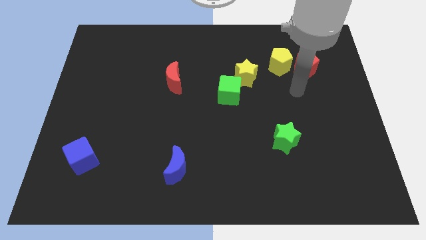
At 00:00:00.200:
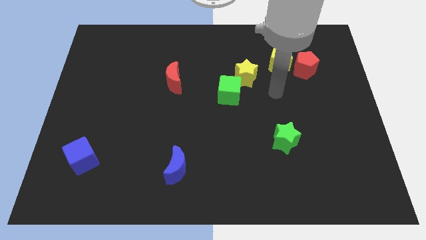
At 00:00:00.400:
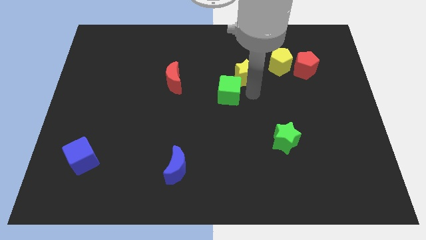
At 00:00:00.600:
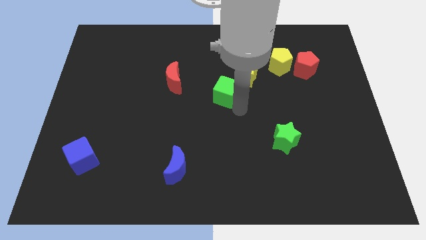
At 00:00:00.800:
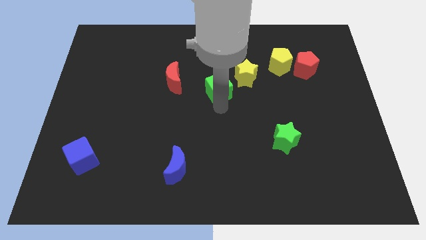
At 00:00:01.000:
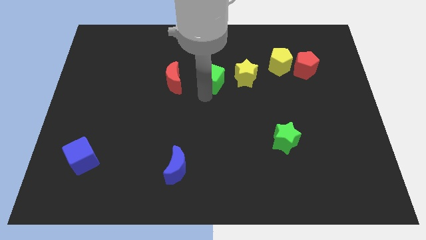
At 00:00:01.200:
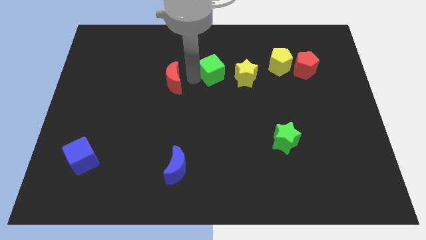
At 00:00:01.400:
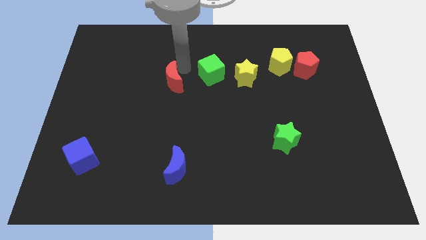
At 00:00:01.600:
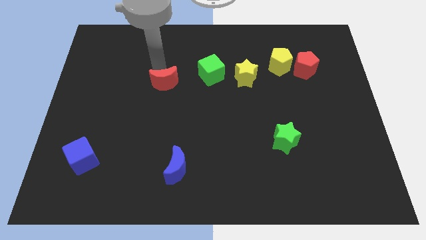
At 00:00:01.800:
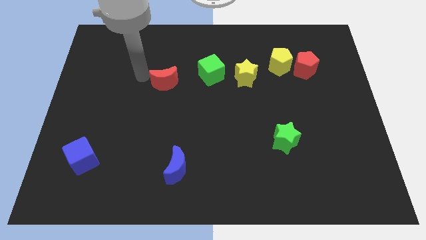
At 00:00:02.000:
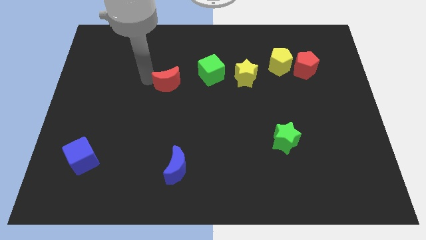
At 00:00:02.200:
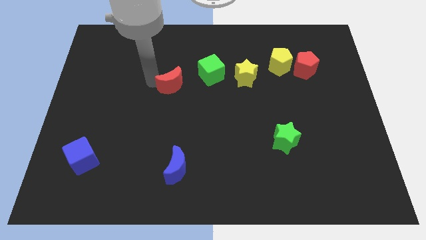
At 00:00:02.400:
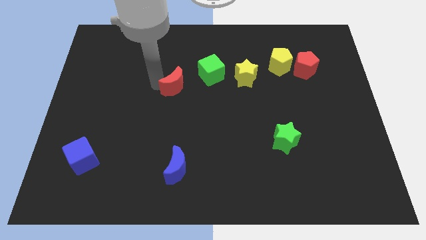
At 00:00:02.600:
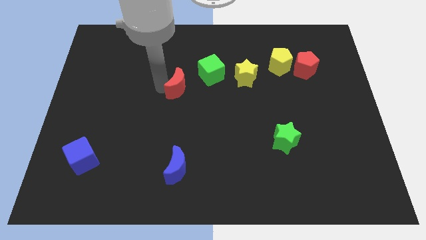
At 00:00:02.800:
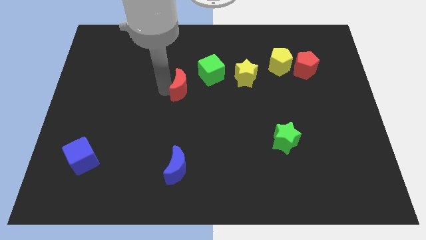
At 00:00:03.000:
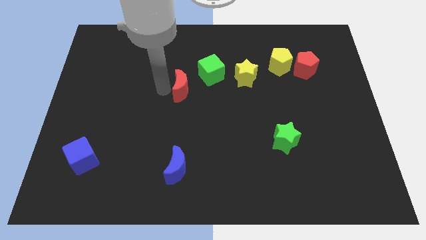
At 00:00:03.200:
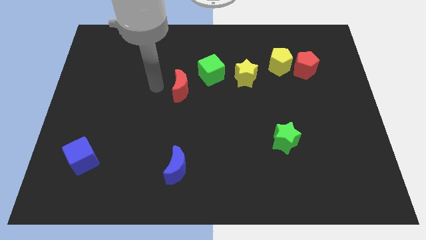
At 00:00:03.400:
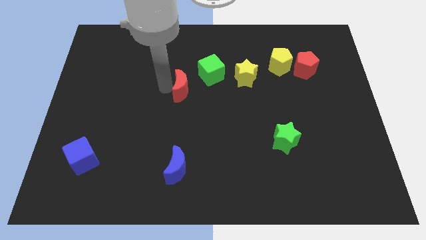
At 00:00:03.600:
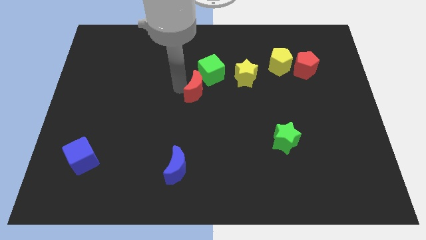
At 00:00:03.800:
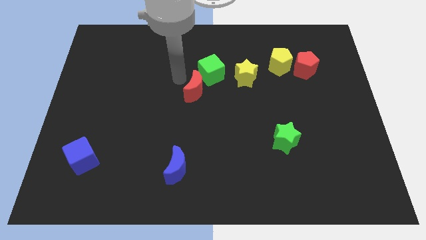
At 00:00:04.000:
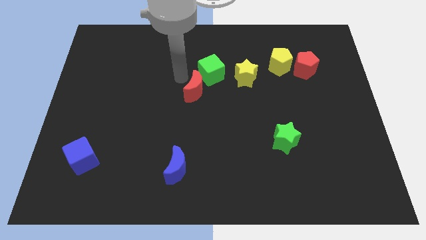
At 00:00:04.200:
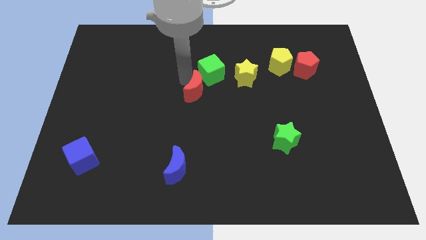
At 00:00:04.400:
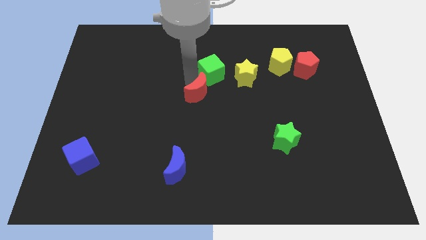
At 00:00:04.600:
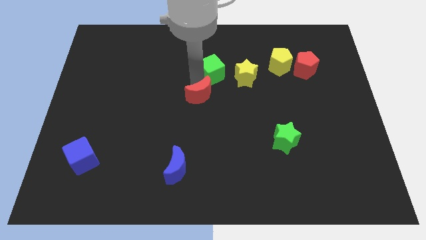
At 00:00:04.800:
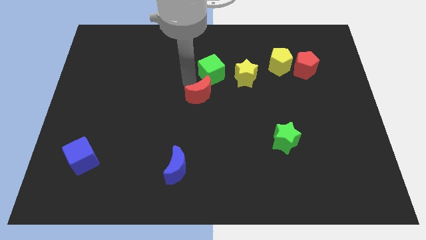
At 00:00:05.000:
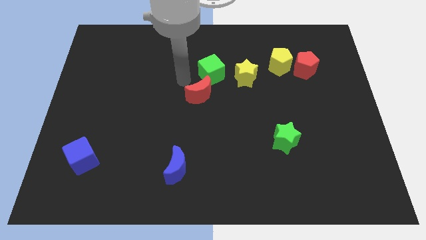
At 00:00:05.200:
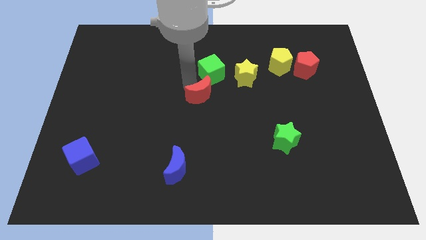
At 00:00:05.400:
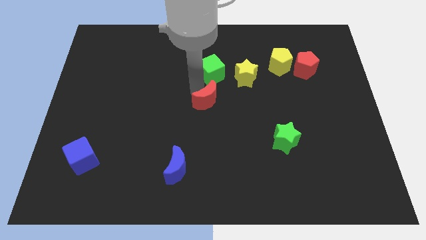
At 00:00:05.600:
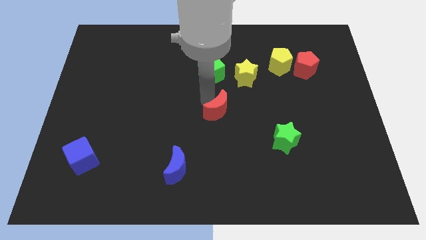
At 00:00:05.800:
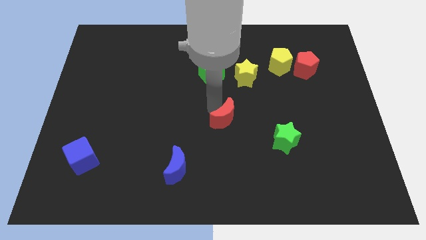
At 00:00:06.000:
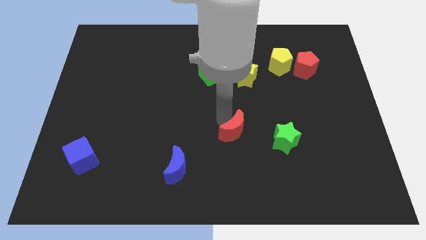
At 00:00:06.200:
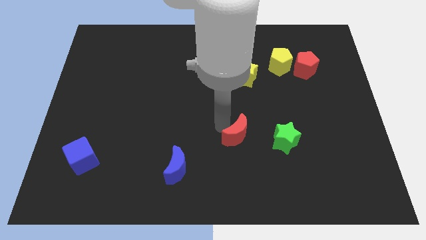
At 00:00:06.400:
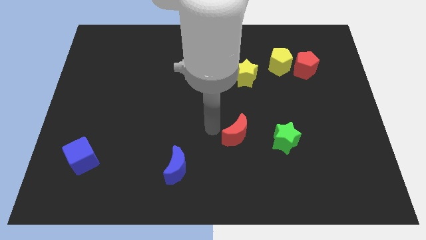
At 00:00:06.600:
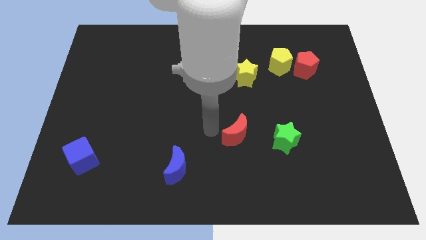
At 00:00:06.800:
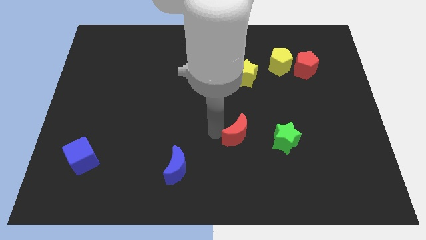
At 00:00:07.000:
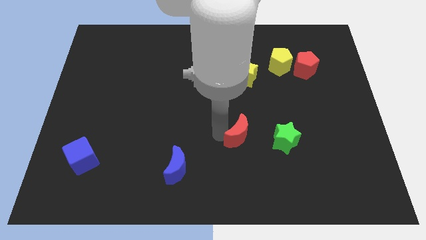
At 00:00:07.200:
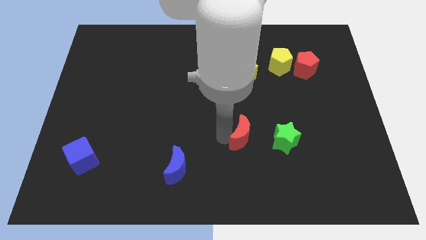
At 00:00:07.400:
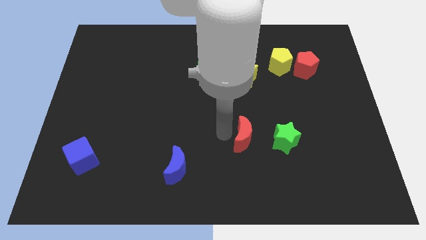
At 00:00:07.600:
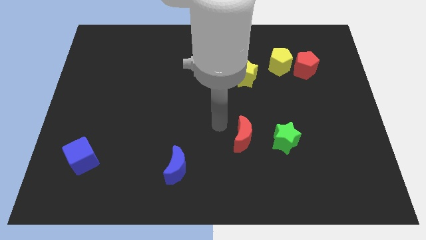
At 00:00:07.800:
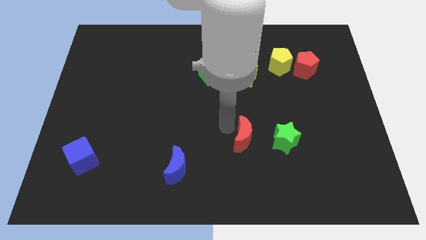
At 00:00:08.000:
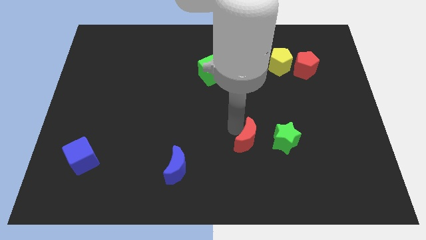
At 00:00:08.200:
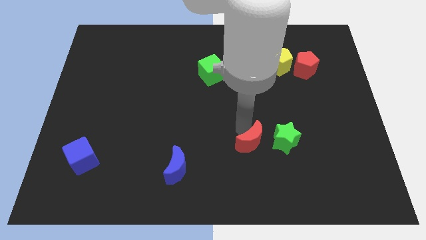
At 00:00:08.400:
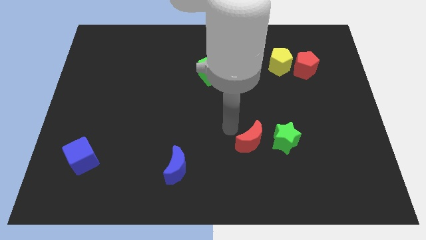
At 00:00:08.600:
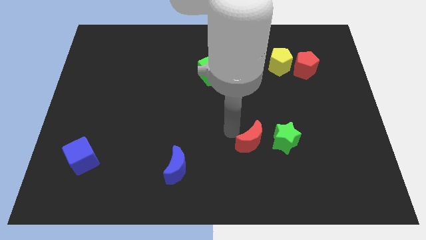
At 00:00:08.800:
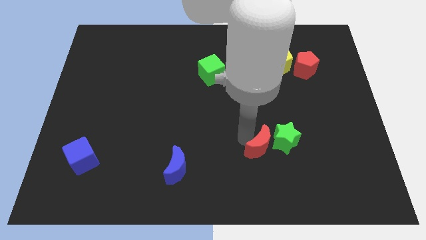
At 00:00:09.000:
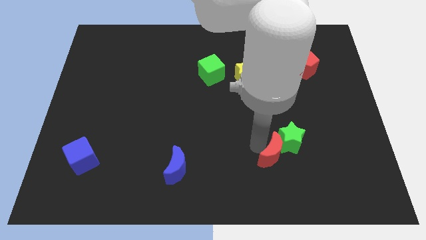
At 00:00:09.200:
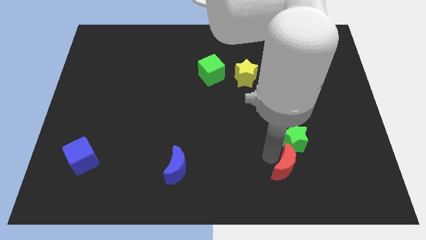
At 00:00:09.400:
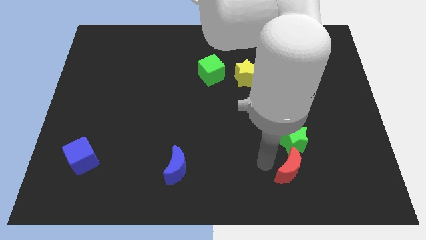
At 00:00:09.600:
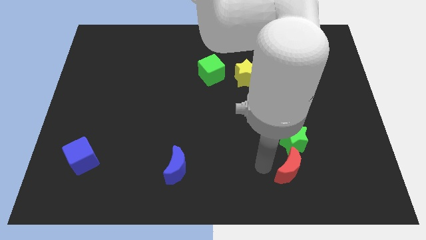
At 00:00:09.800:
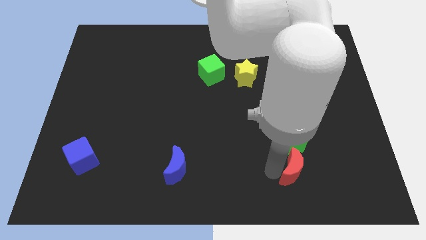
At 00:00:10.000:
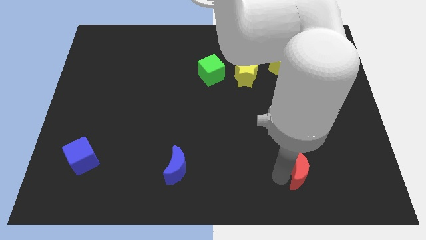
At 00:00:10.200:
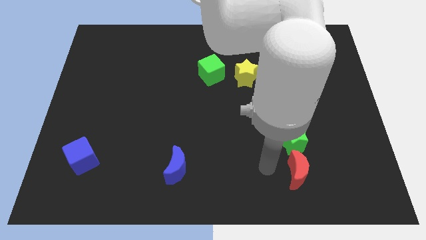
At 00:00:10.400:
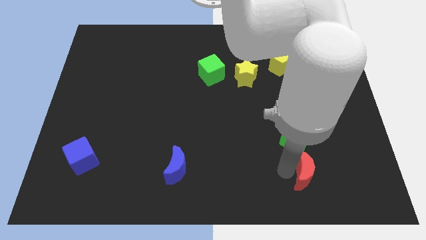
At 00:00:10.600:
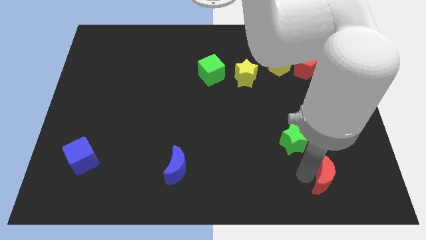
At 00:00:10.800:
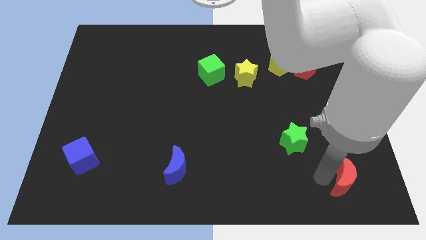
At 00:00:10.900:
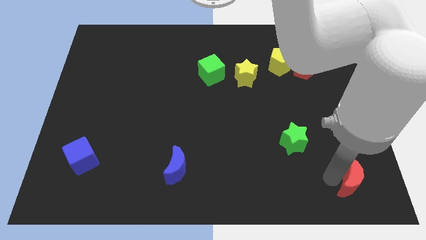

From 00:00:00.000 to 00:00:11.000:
put the red moon to the bottom right
